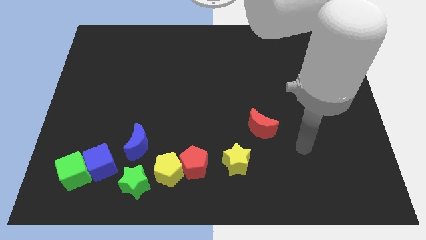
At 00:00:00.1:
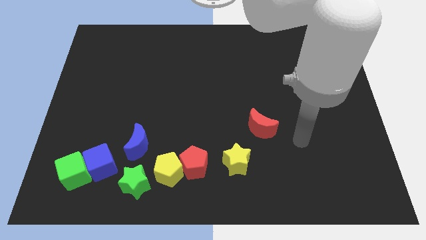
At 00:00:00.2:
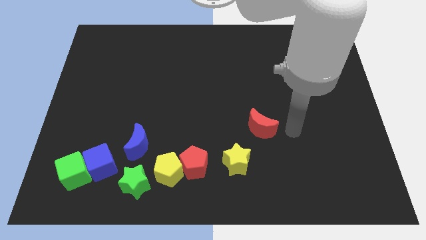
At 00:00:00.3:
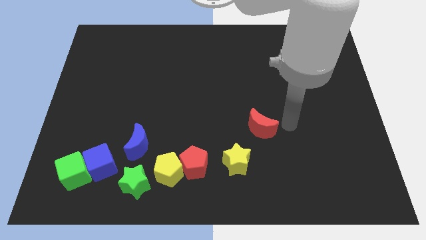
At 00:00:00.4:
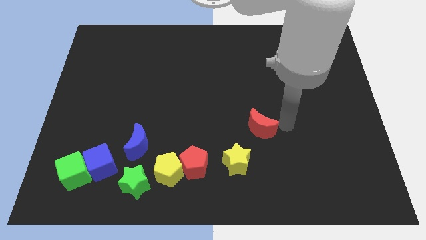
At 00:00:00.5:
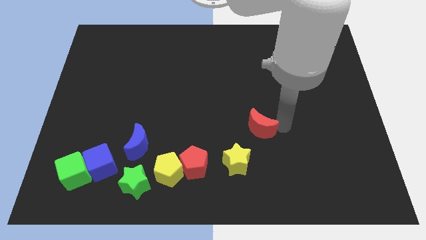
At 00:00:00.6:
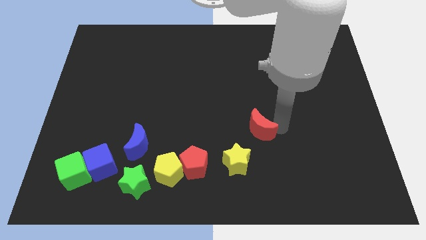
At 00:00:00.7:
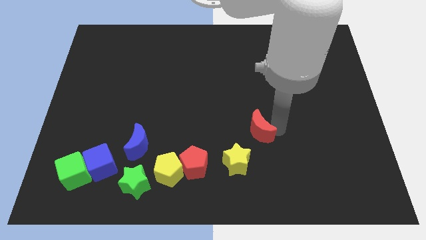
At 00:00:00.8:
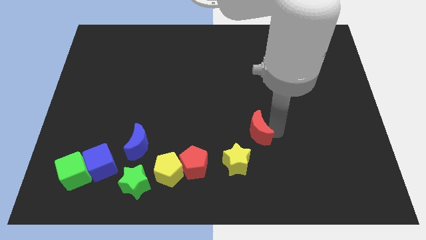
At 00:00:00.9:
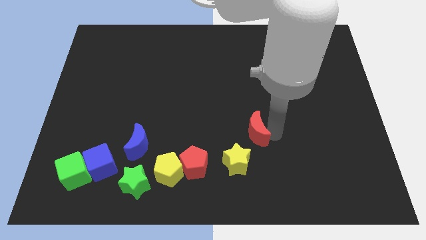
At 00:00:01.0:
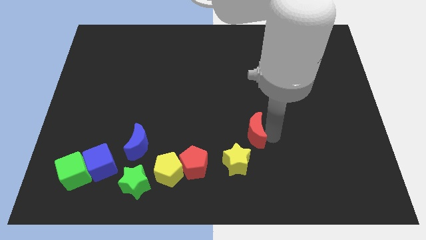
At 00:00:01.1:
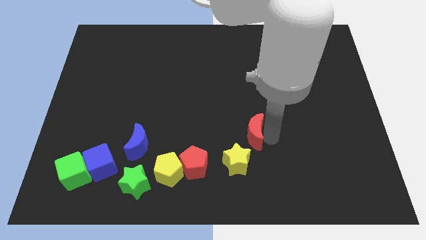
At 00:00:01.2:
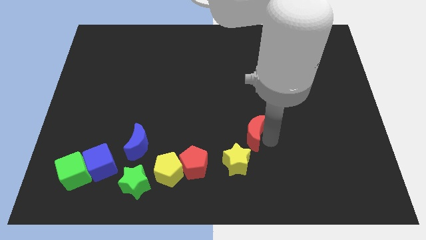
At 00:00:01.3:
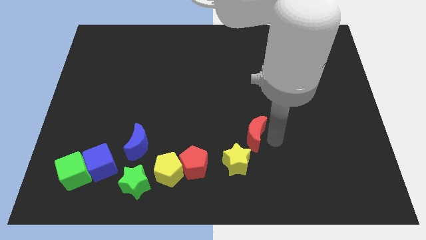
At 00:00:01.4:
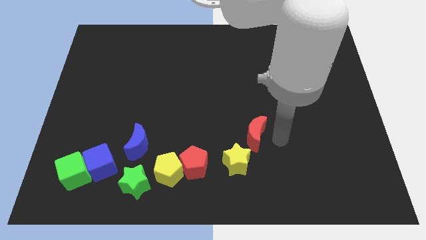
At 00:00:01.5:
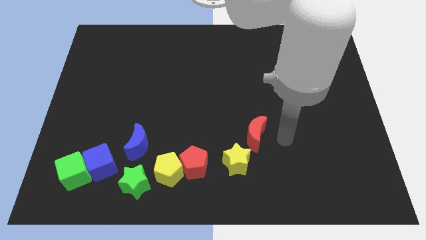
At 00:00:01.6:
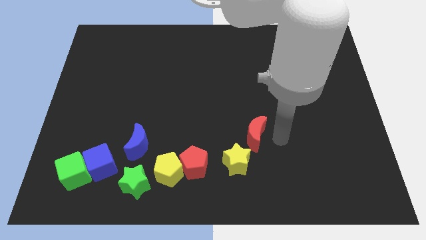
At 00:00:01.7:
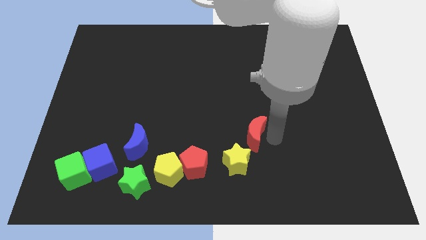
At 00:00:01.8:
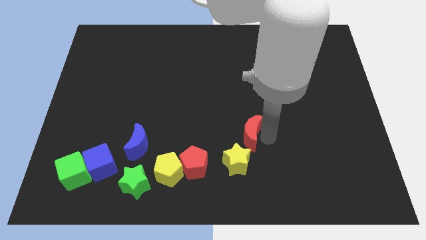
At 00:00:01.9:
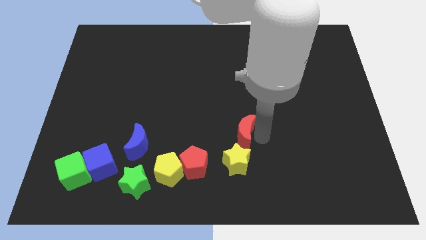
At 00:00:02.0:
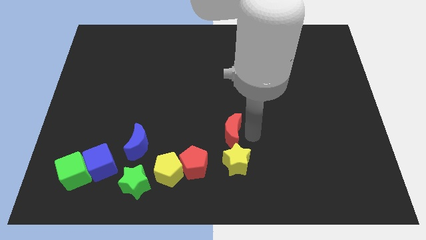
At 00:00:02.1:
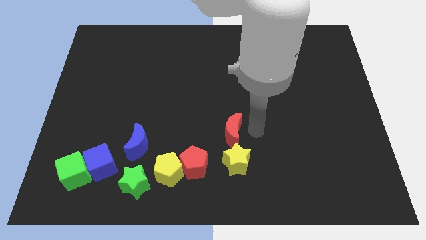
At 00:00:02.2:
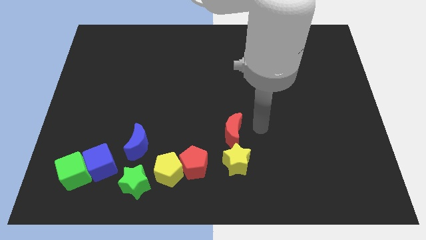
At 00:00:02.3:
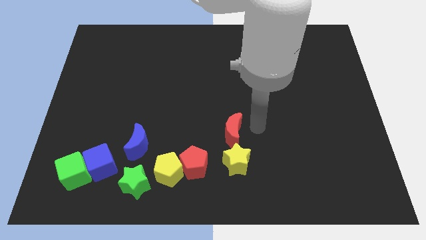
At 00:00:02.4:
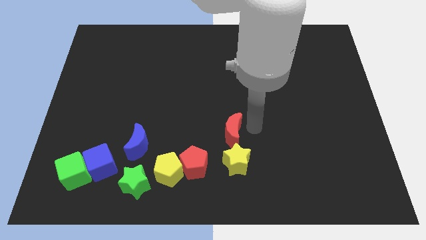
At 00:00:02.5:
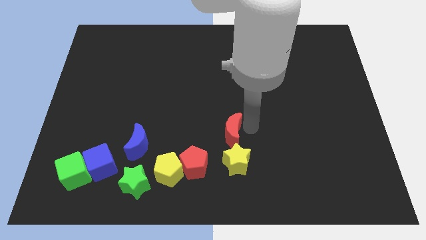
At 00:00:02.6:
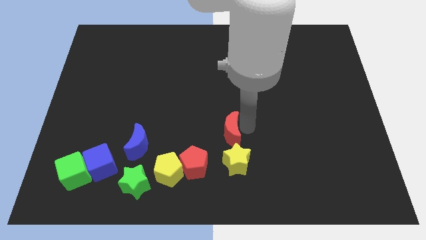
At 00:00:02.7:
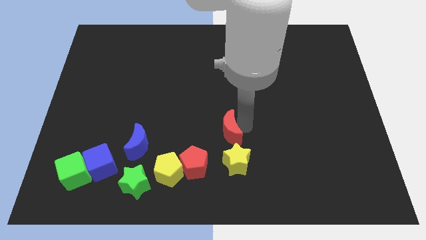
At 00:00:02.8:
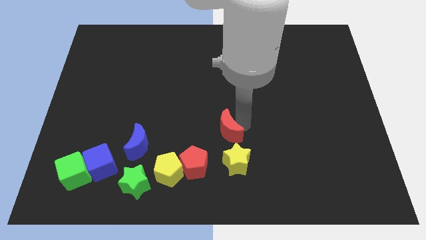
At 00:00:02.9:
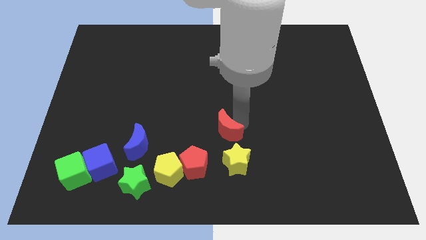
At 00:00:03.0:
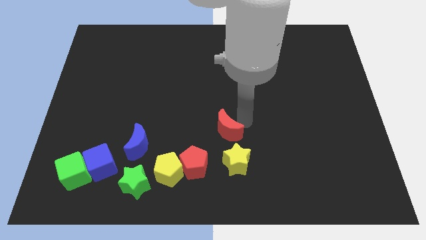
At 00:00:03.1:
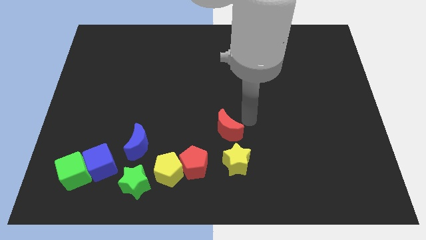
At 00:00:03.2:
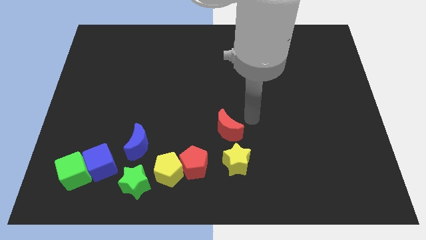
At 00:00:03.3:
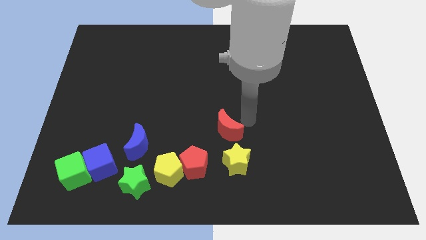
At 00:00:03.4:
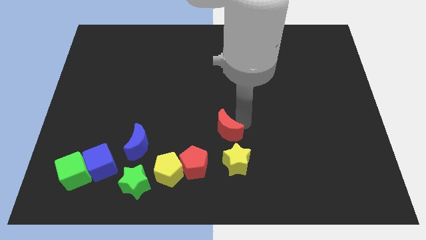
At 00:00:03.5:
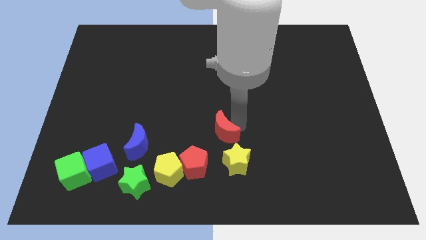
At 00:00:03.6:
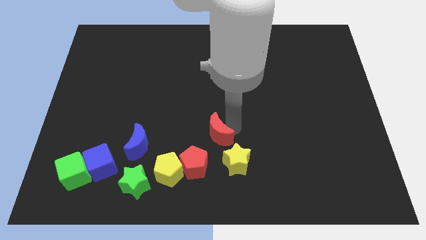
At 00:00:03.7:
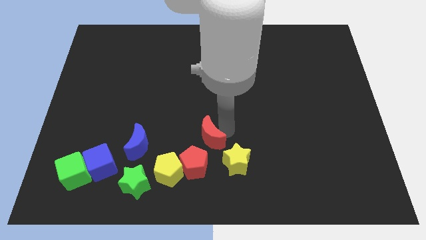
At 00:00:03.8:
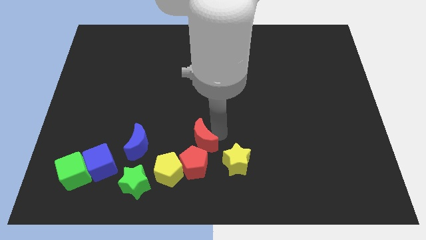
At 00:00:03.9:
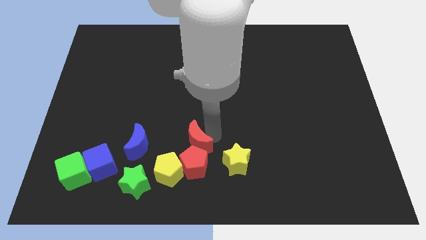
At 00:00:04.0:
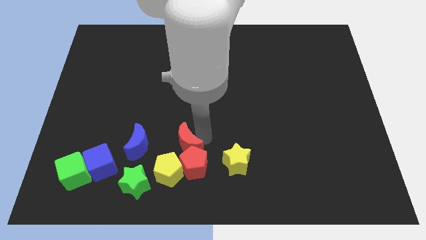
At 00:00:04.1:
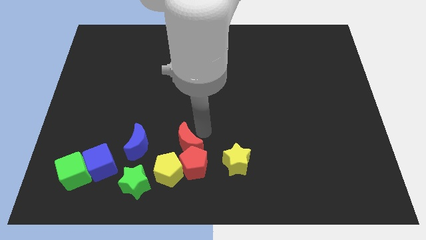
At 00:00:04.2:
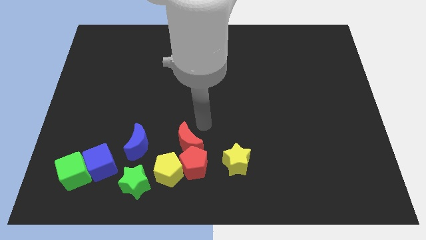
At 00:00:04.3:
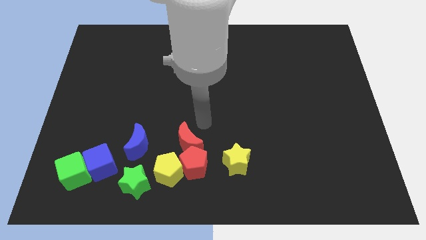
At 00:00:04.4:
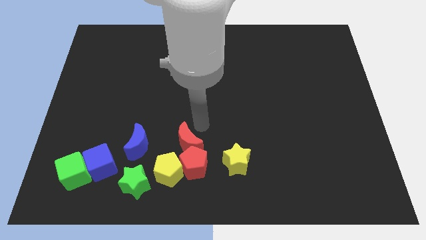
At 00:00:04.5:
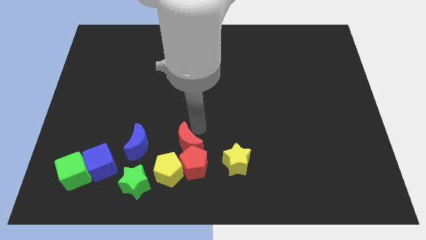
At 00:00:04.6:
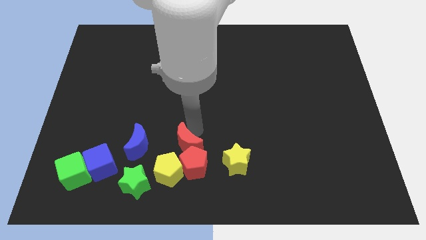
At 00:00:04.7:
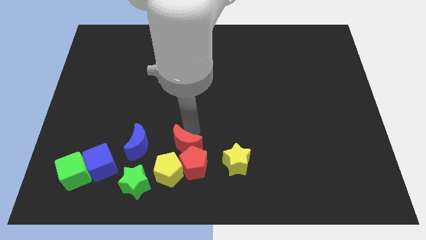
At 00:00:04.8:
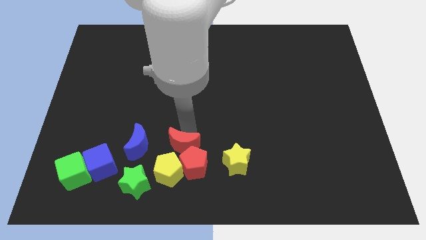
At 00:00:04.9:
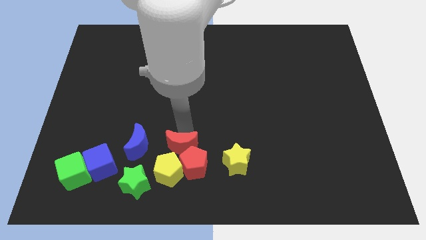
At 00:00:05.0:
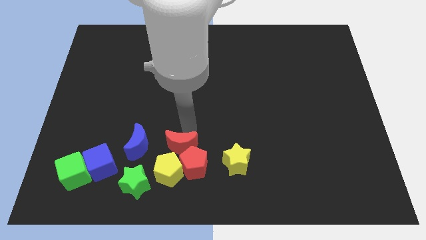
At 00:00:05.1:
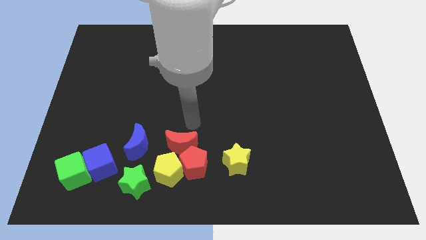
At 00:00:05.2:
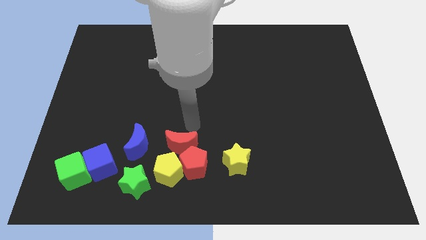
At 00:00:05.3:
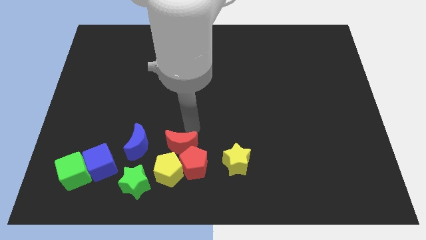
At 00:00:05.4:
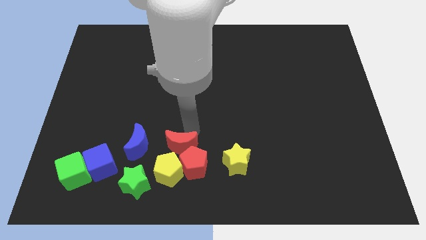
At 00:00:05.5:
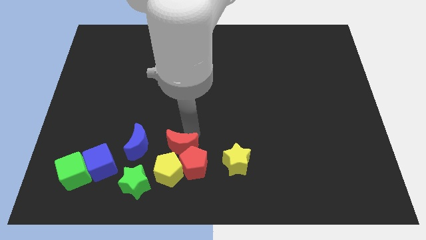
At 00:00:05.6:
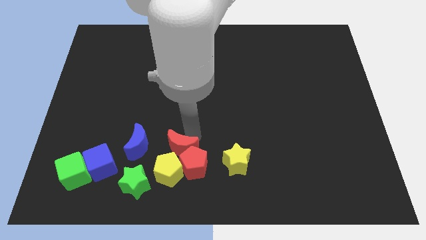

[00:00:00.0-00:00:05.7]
put the red moon close to the yellow pentagon

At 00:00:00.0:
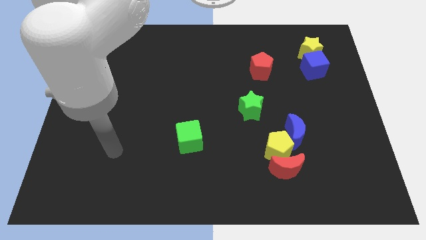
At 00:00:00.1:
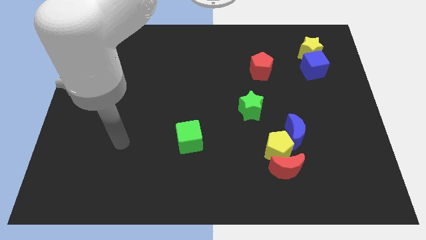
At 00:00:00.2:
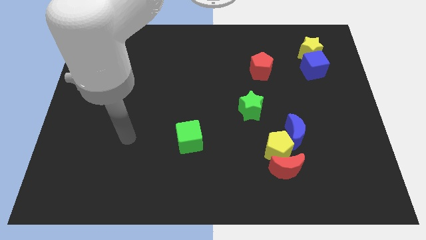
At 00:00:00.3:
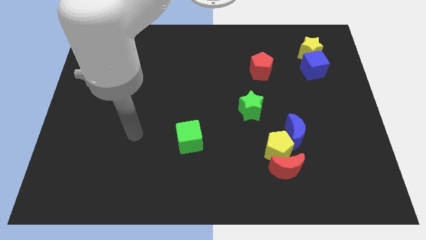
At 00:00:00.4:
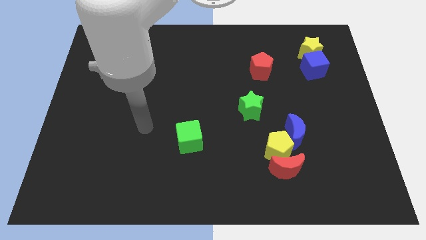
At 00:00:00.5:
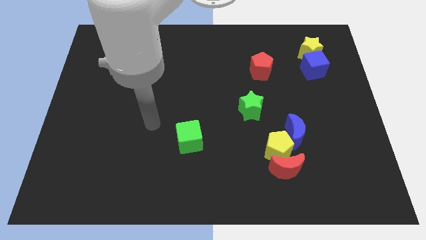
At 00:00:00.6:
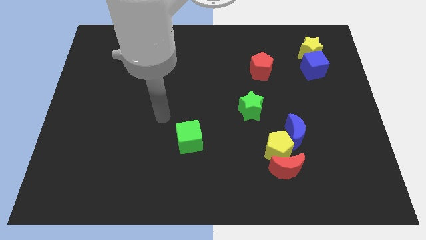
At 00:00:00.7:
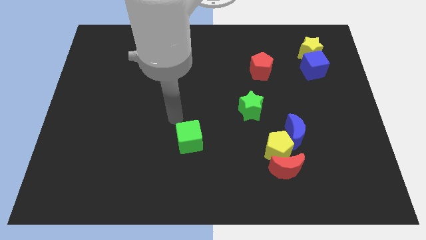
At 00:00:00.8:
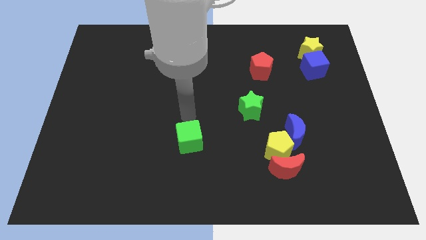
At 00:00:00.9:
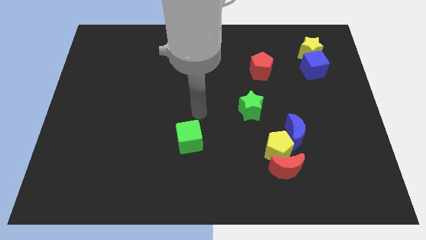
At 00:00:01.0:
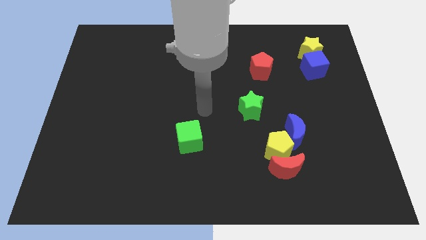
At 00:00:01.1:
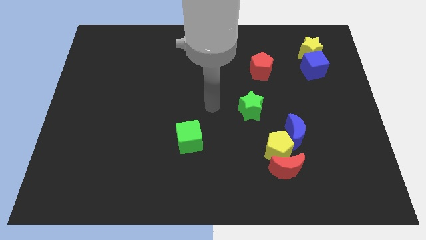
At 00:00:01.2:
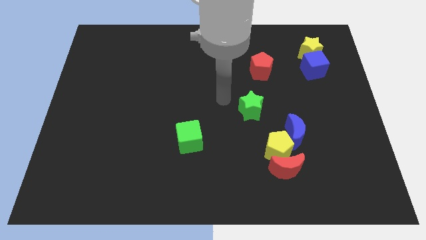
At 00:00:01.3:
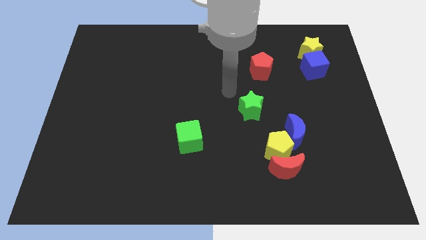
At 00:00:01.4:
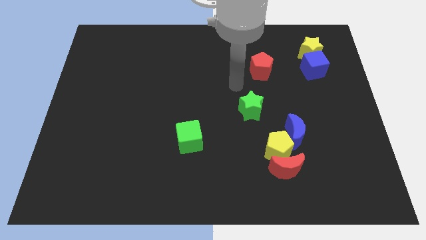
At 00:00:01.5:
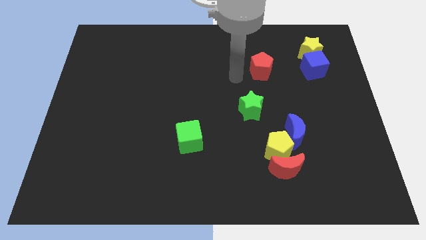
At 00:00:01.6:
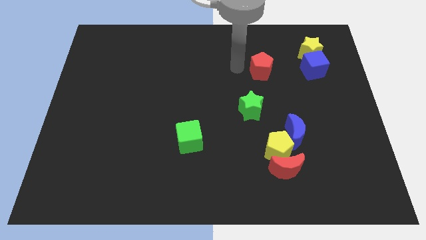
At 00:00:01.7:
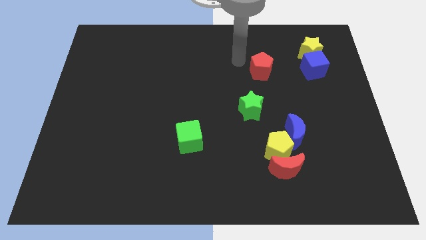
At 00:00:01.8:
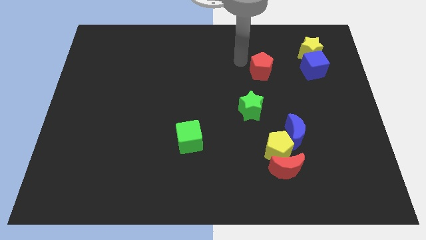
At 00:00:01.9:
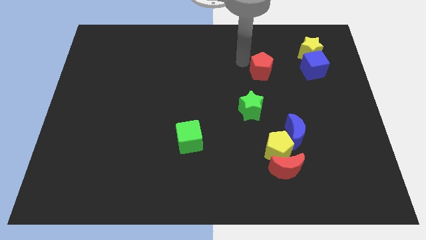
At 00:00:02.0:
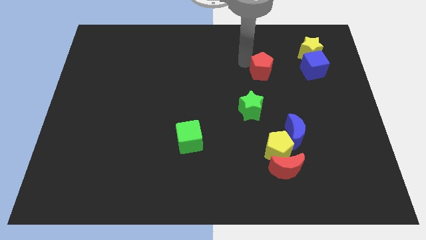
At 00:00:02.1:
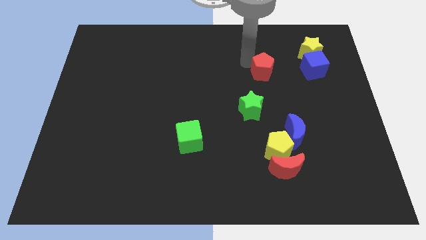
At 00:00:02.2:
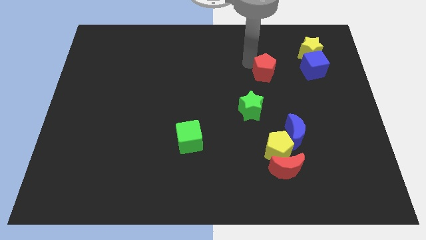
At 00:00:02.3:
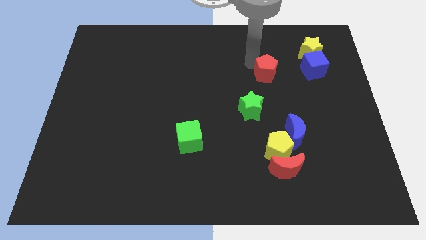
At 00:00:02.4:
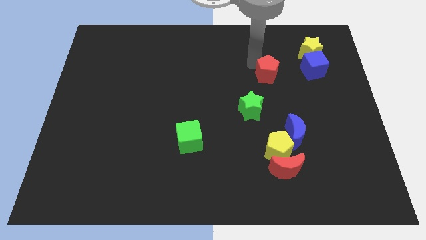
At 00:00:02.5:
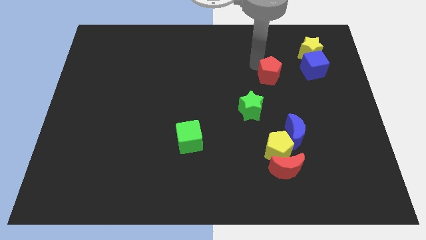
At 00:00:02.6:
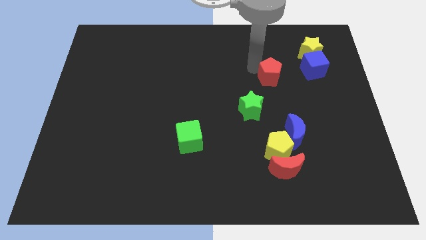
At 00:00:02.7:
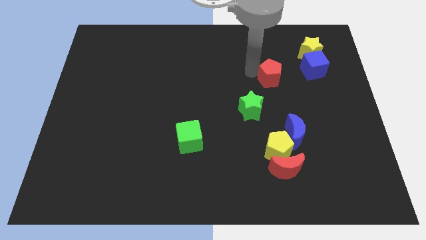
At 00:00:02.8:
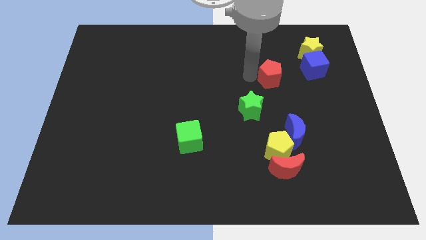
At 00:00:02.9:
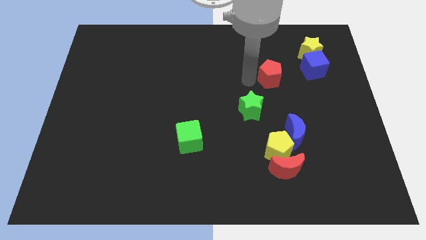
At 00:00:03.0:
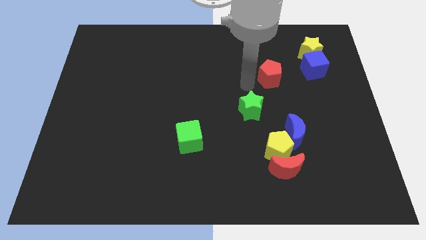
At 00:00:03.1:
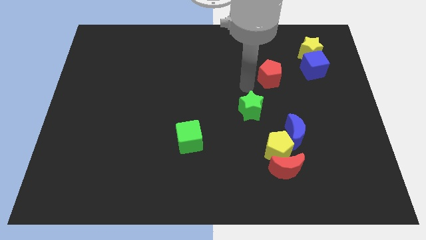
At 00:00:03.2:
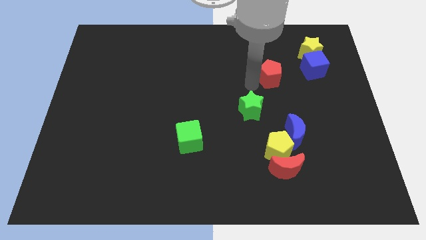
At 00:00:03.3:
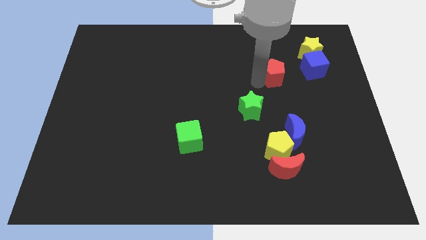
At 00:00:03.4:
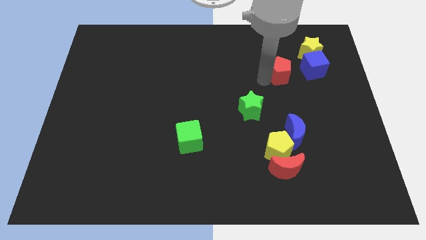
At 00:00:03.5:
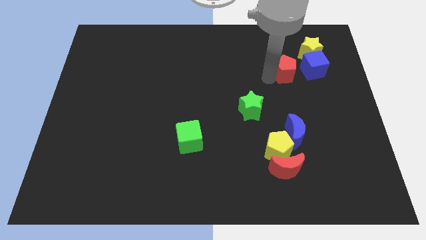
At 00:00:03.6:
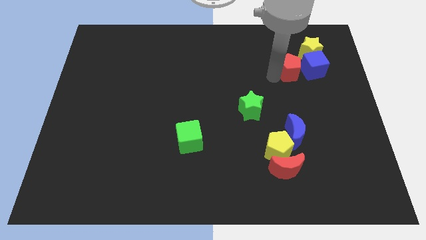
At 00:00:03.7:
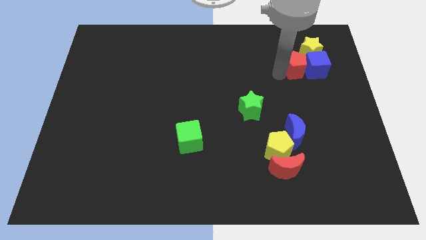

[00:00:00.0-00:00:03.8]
put the red pentagon to the blue cube
